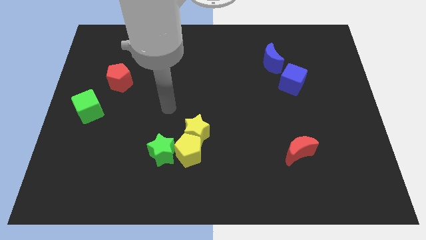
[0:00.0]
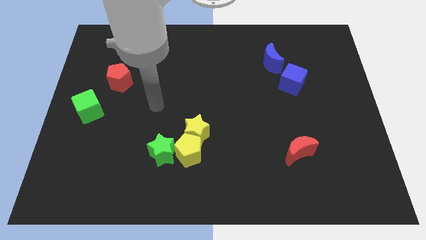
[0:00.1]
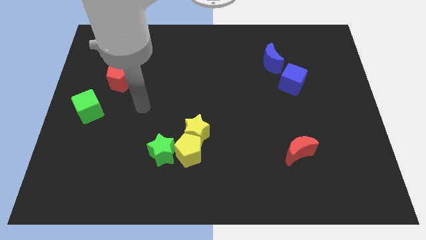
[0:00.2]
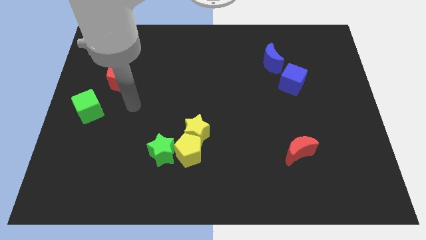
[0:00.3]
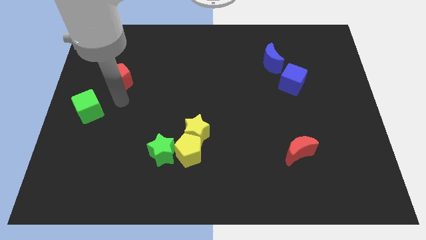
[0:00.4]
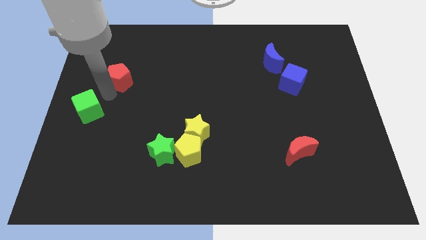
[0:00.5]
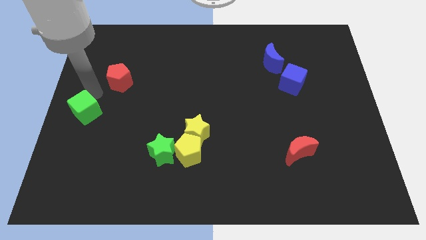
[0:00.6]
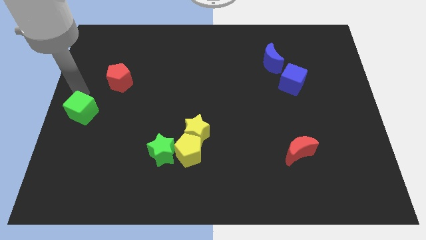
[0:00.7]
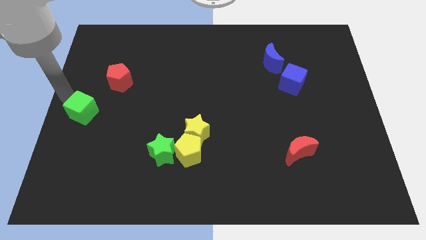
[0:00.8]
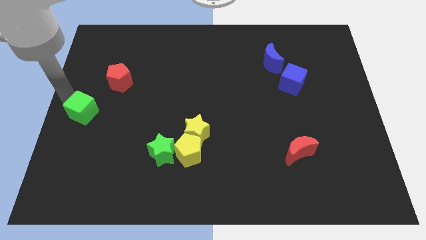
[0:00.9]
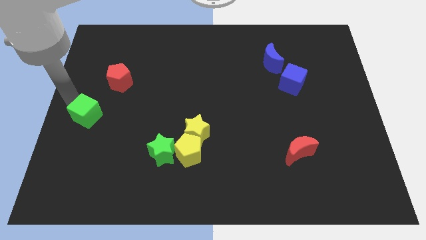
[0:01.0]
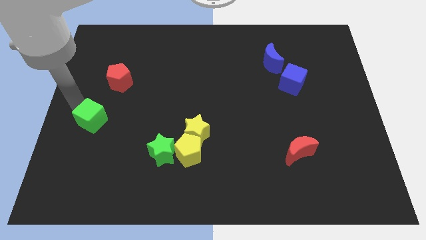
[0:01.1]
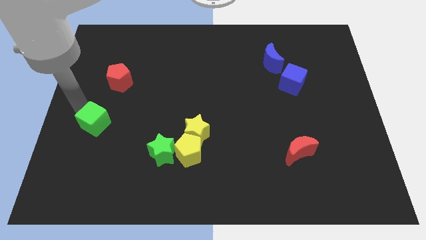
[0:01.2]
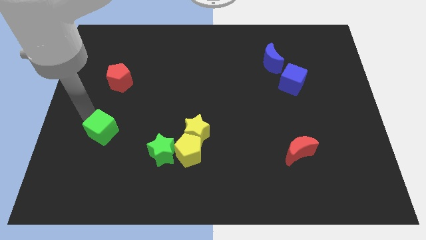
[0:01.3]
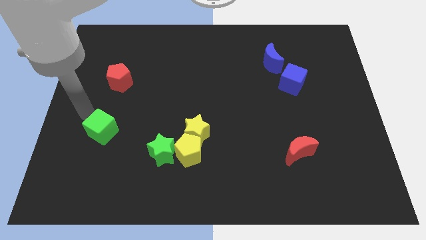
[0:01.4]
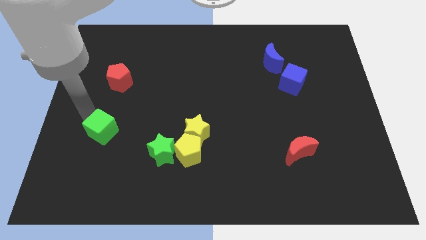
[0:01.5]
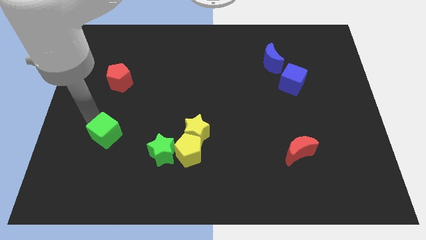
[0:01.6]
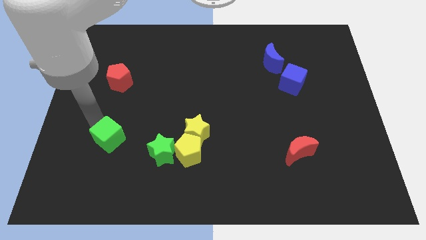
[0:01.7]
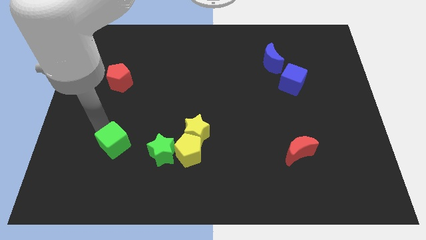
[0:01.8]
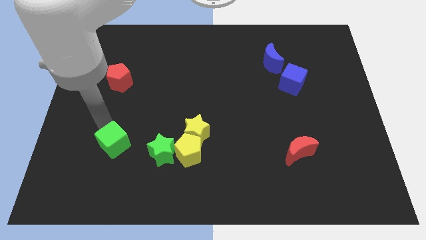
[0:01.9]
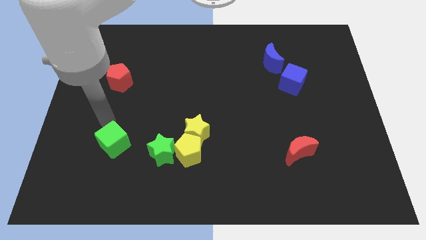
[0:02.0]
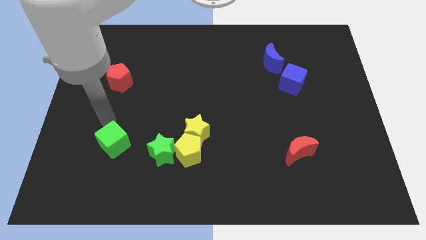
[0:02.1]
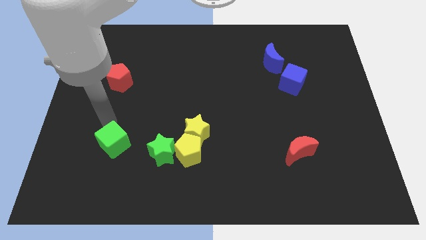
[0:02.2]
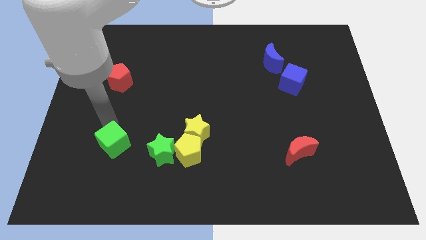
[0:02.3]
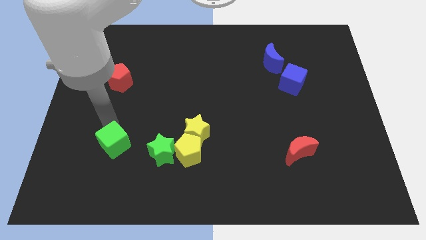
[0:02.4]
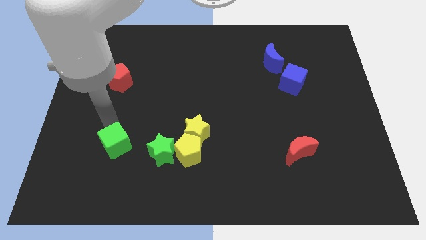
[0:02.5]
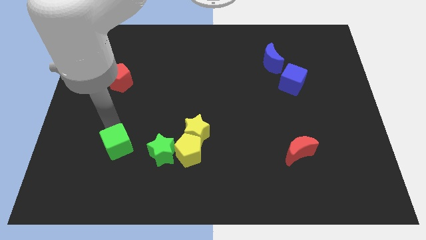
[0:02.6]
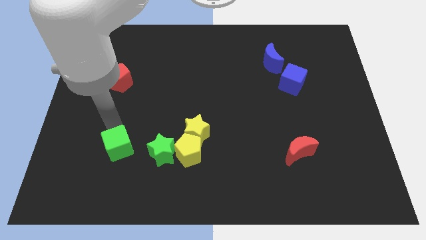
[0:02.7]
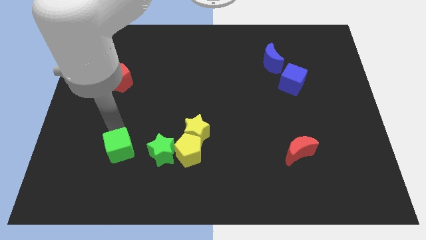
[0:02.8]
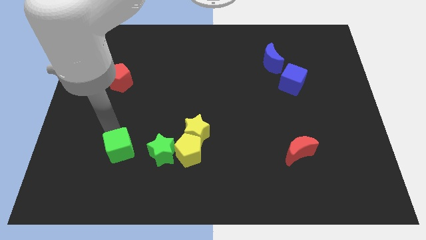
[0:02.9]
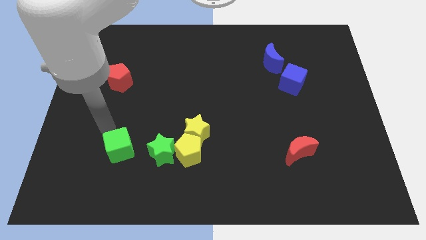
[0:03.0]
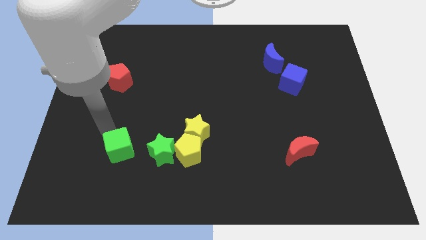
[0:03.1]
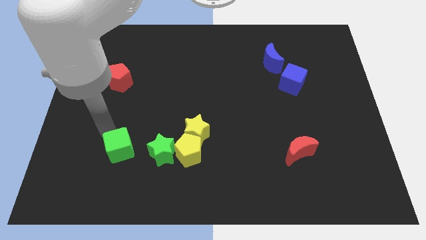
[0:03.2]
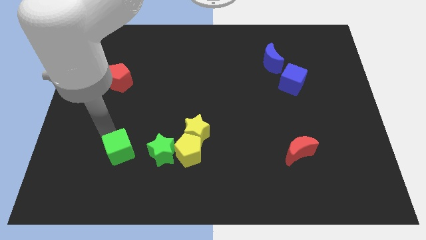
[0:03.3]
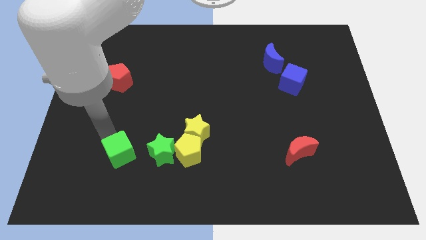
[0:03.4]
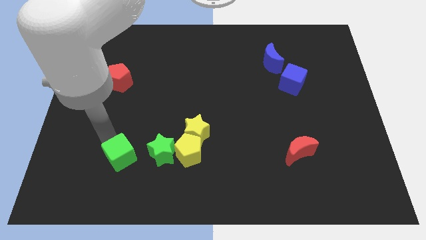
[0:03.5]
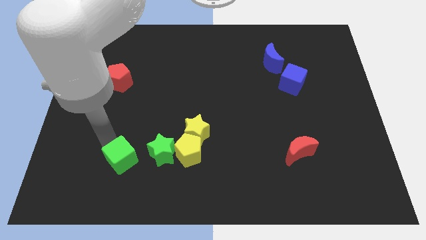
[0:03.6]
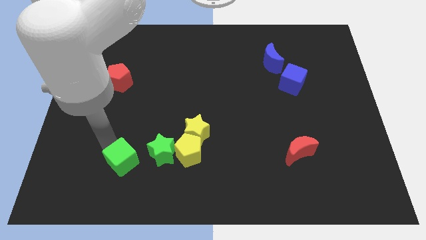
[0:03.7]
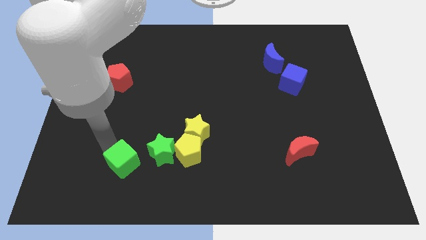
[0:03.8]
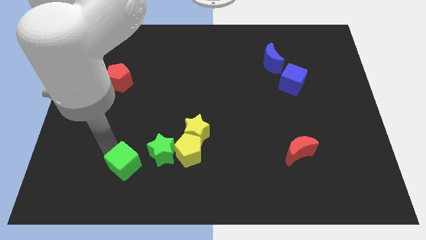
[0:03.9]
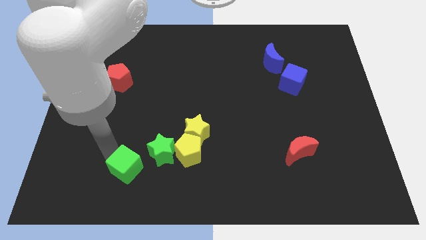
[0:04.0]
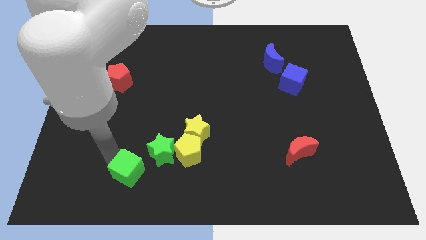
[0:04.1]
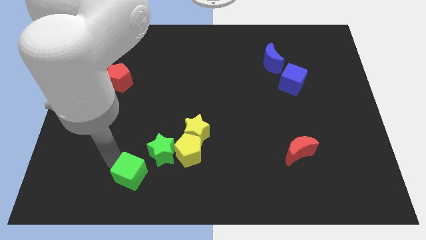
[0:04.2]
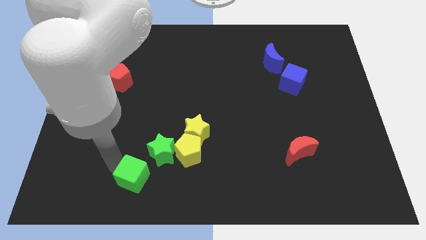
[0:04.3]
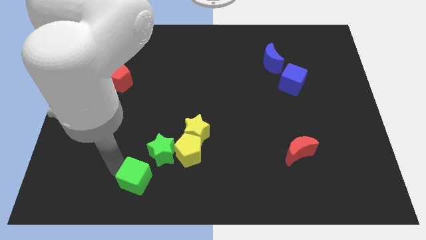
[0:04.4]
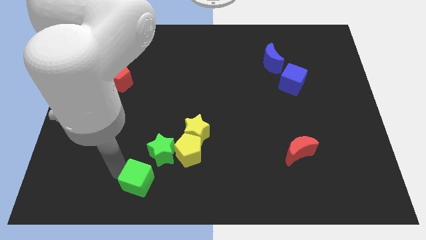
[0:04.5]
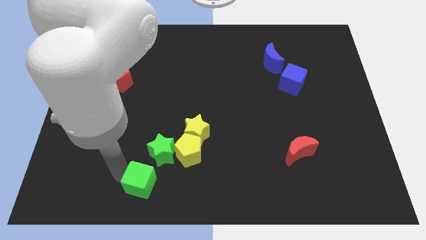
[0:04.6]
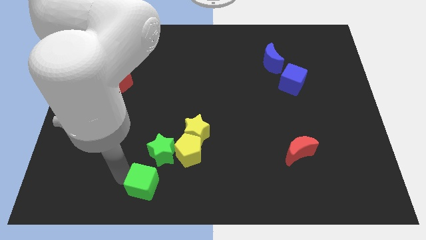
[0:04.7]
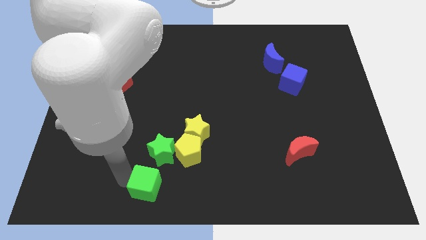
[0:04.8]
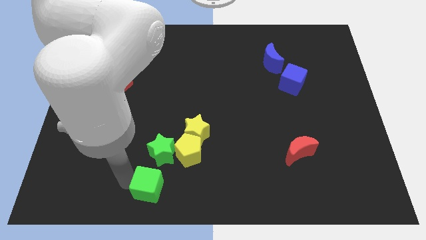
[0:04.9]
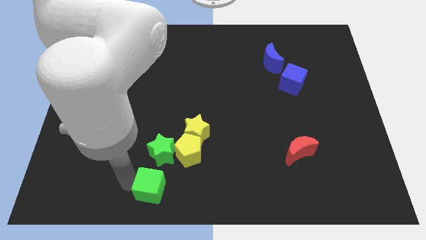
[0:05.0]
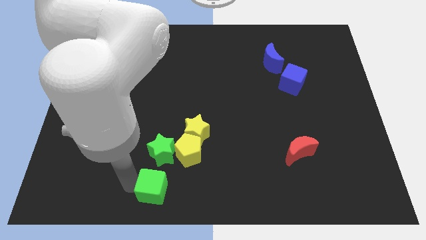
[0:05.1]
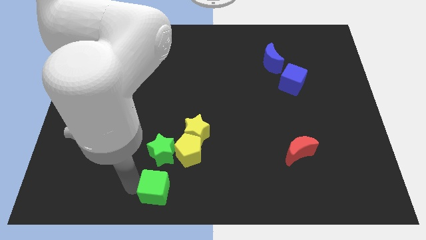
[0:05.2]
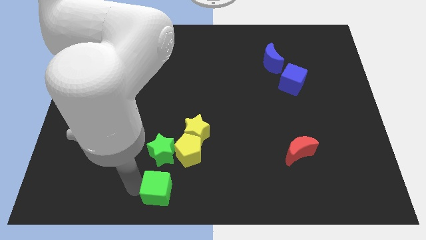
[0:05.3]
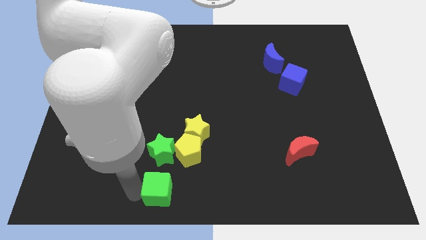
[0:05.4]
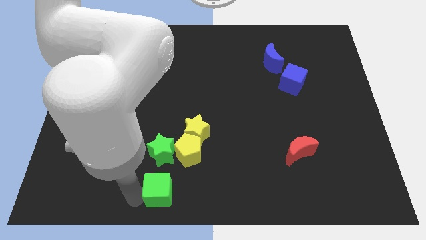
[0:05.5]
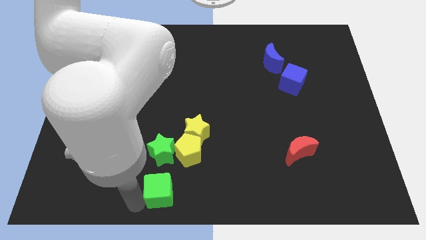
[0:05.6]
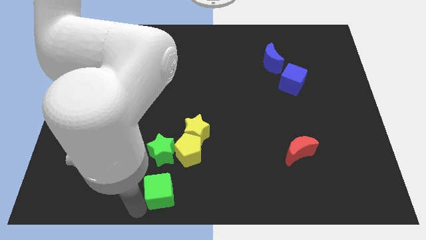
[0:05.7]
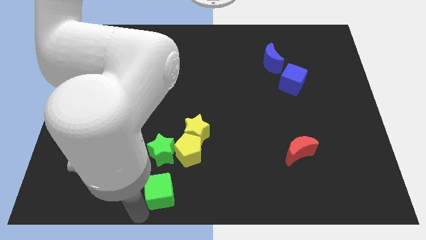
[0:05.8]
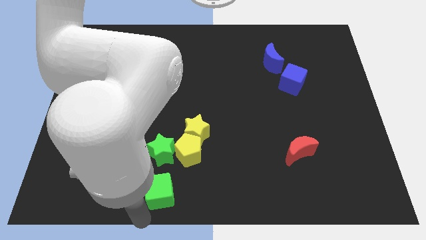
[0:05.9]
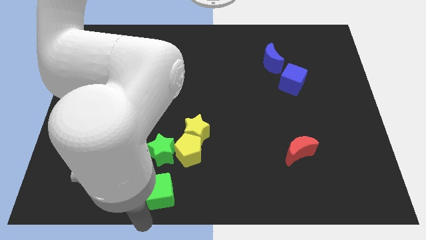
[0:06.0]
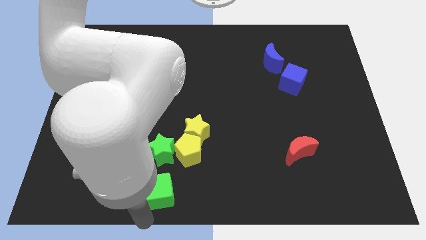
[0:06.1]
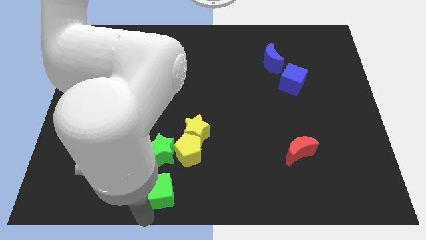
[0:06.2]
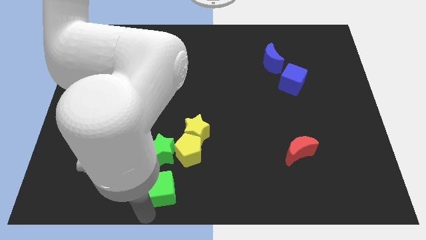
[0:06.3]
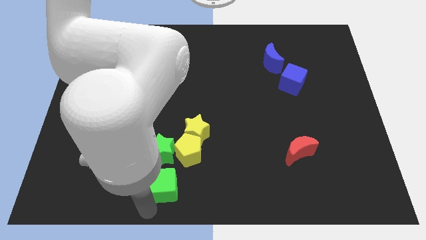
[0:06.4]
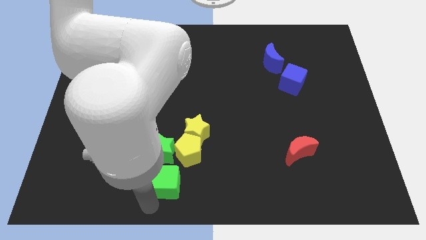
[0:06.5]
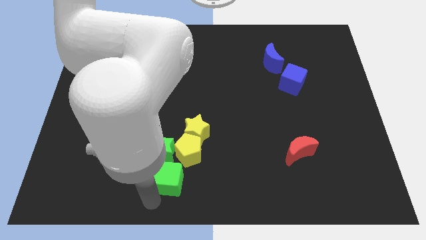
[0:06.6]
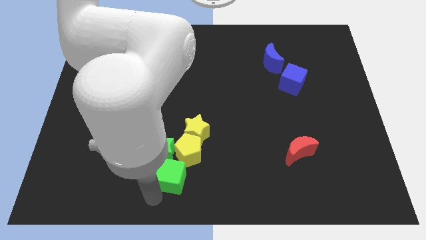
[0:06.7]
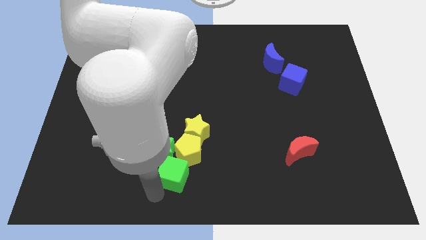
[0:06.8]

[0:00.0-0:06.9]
move the green cube close to the yellow pentagon

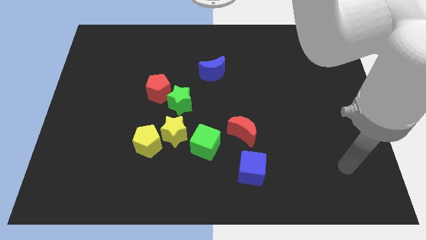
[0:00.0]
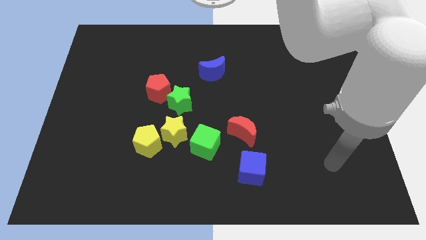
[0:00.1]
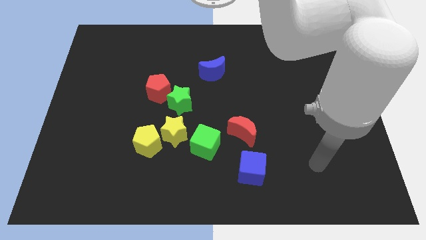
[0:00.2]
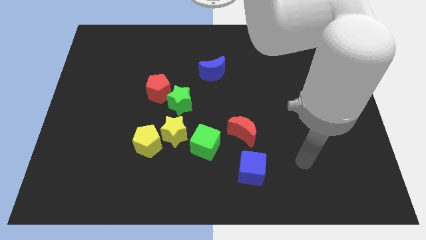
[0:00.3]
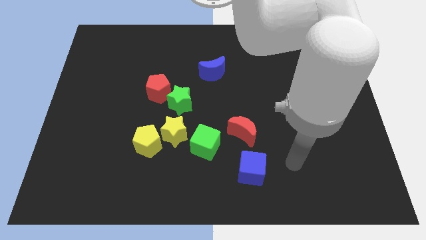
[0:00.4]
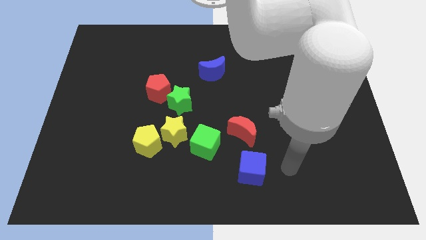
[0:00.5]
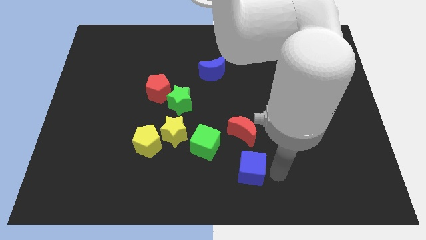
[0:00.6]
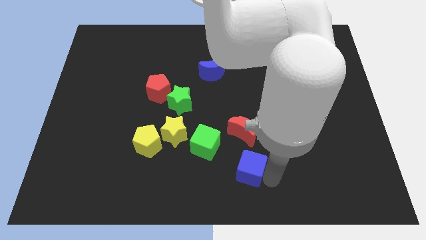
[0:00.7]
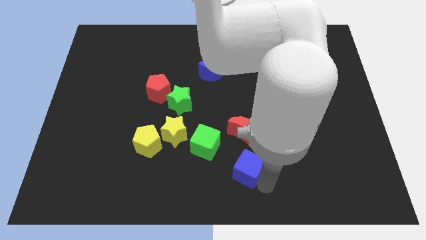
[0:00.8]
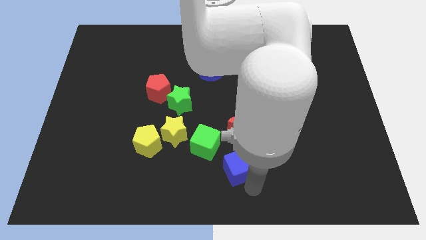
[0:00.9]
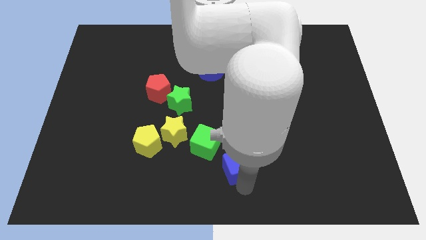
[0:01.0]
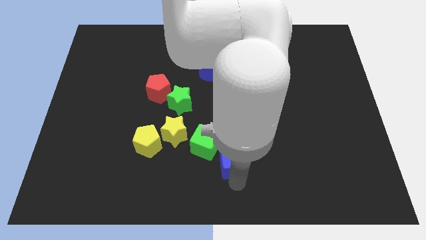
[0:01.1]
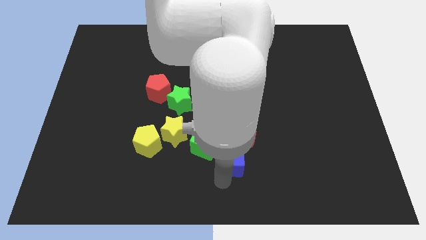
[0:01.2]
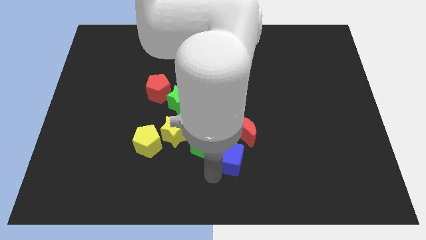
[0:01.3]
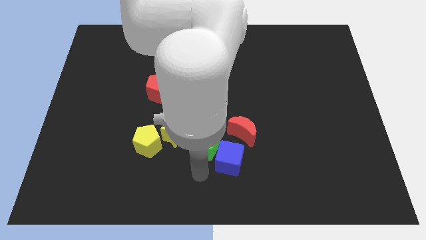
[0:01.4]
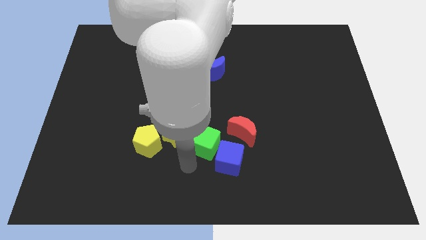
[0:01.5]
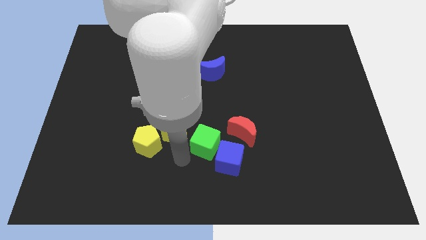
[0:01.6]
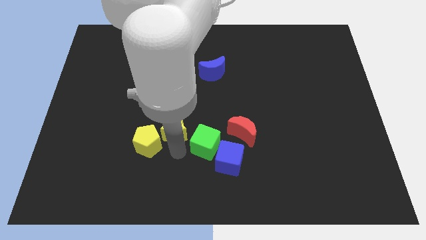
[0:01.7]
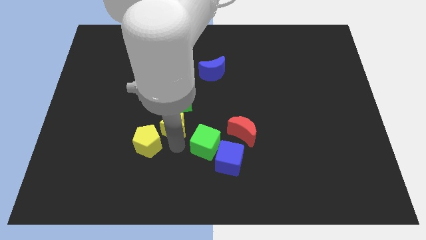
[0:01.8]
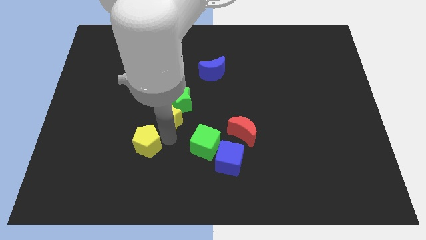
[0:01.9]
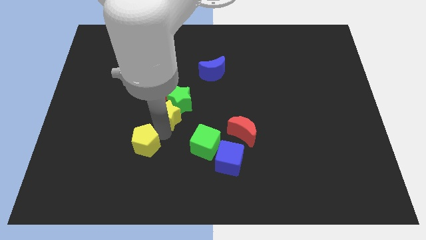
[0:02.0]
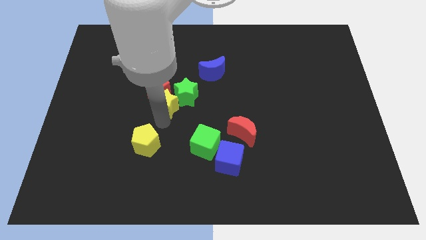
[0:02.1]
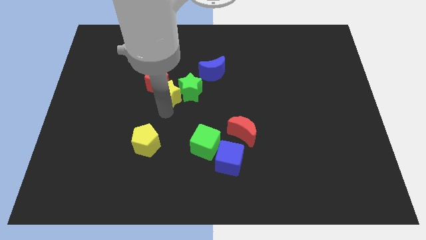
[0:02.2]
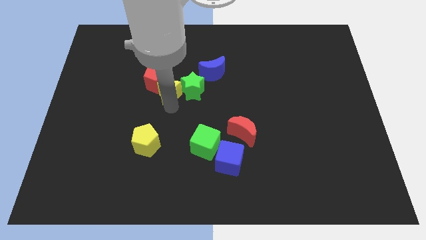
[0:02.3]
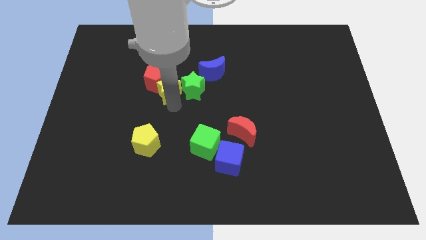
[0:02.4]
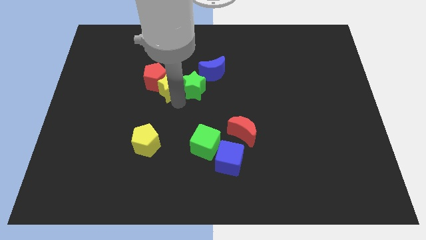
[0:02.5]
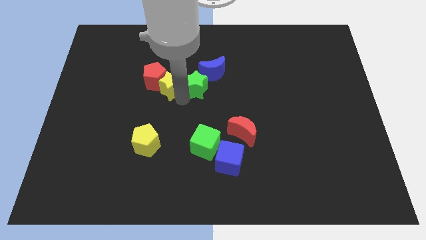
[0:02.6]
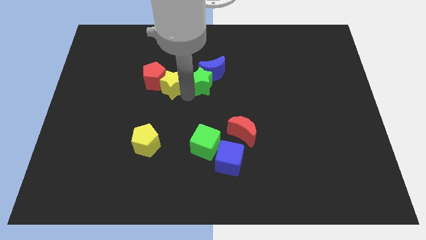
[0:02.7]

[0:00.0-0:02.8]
slide the green star to the blue moon
